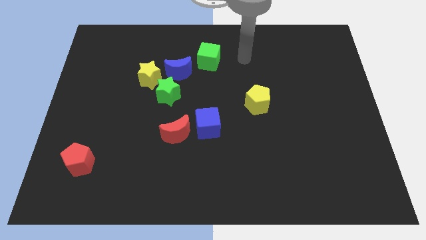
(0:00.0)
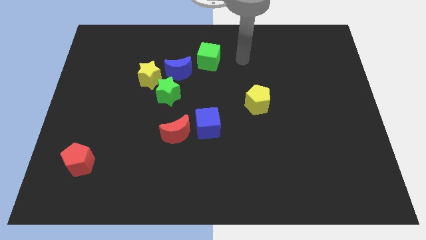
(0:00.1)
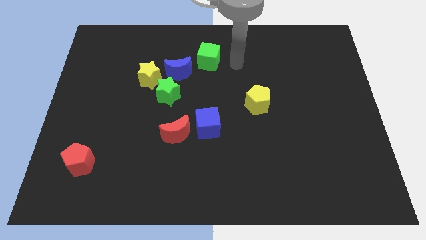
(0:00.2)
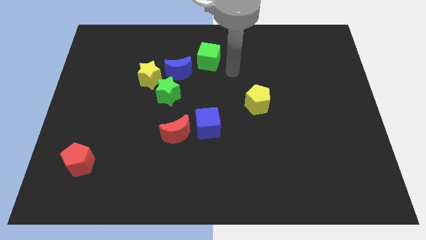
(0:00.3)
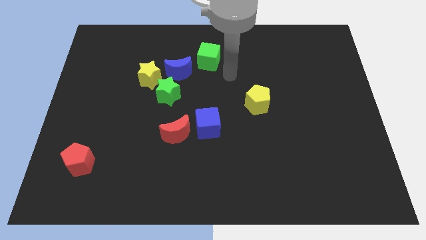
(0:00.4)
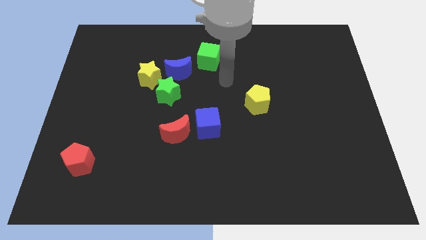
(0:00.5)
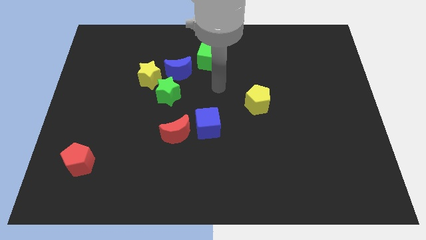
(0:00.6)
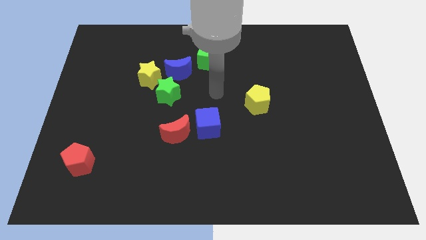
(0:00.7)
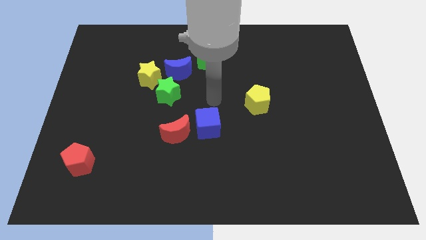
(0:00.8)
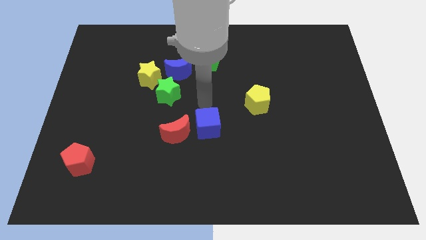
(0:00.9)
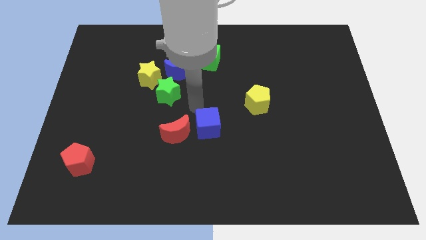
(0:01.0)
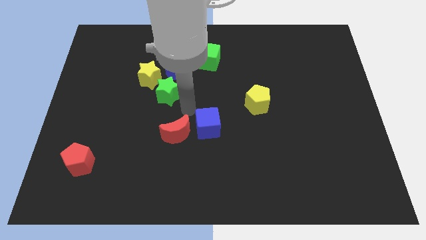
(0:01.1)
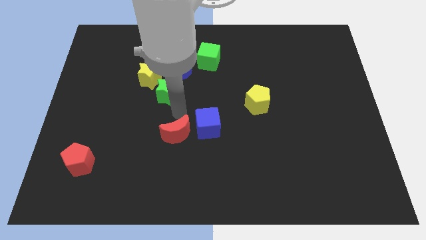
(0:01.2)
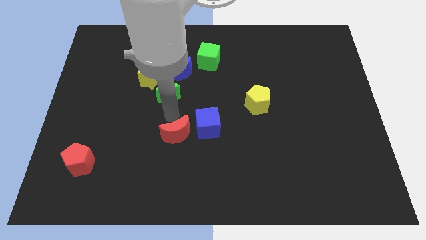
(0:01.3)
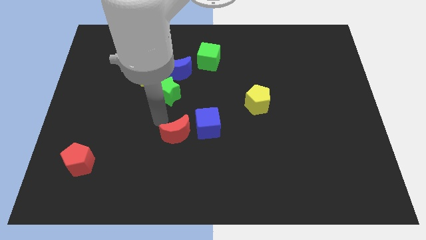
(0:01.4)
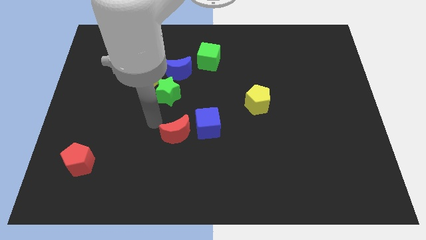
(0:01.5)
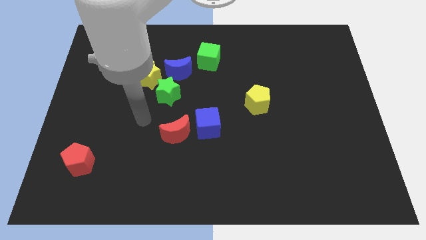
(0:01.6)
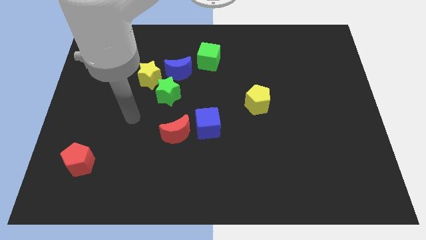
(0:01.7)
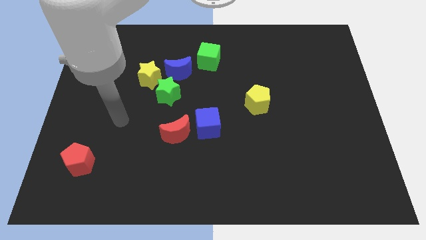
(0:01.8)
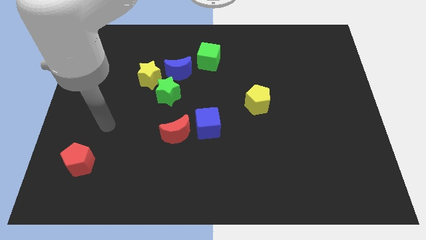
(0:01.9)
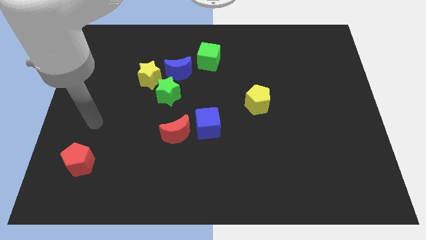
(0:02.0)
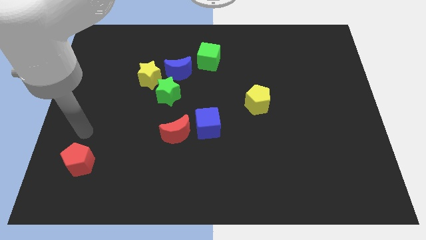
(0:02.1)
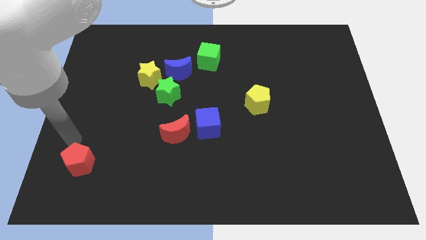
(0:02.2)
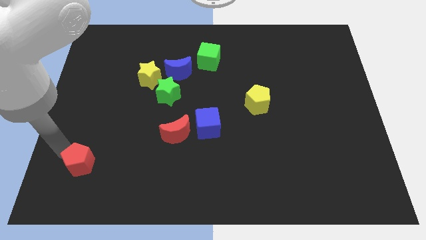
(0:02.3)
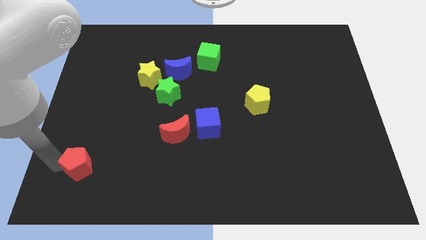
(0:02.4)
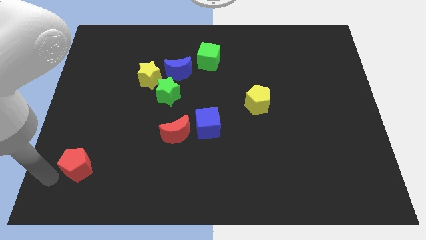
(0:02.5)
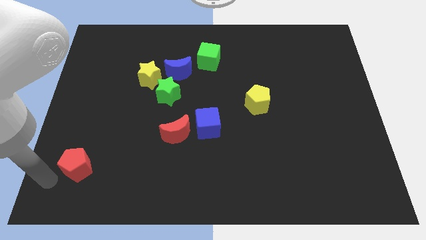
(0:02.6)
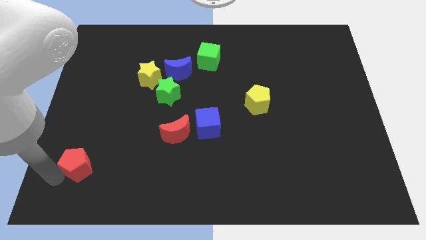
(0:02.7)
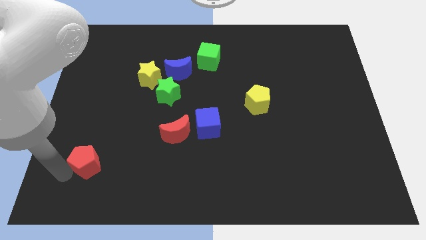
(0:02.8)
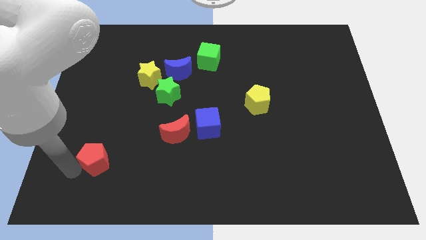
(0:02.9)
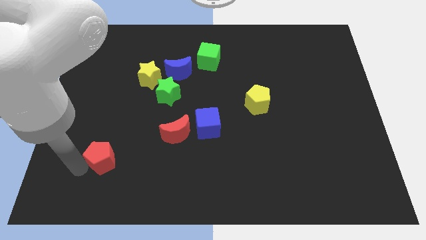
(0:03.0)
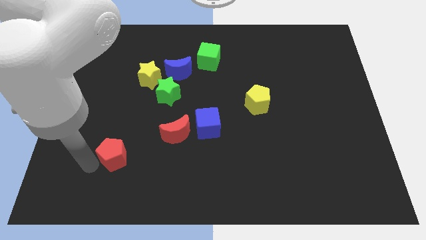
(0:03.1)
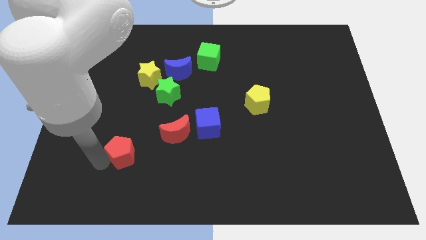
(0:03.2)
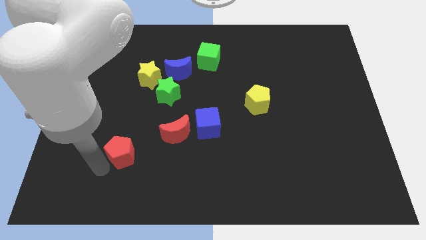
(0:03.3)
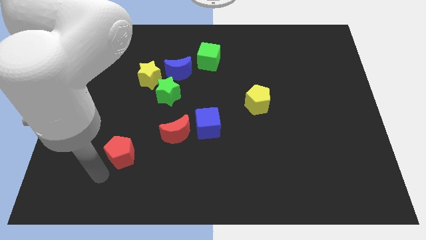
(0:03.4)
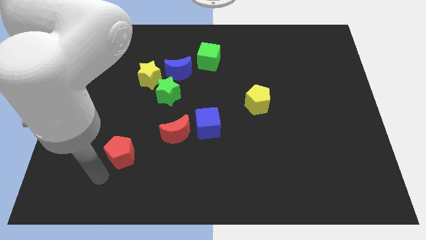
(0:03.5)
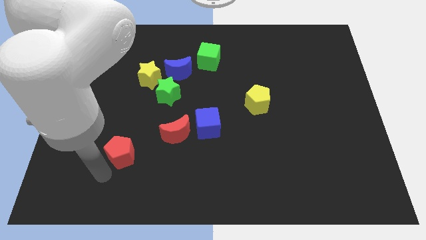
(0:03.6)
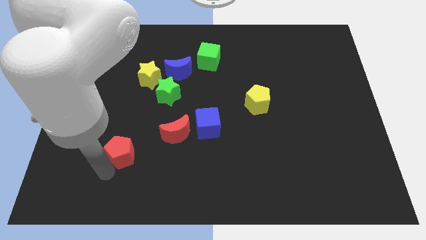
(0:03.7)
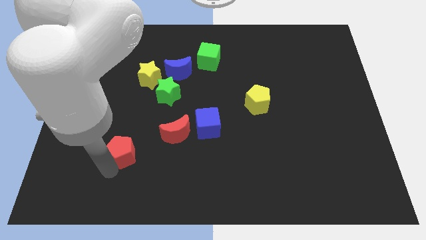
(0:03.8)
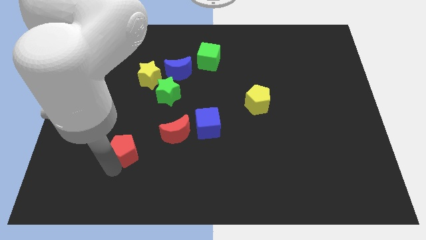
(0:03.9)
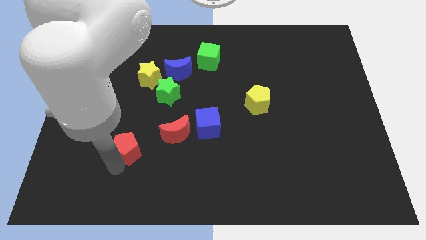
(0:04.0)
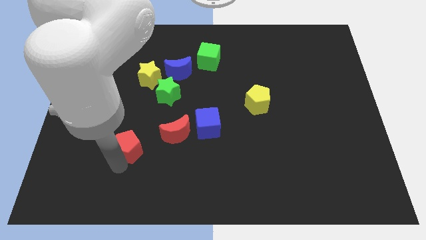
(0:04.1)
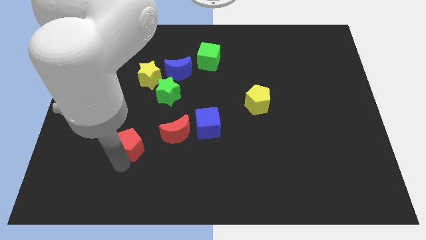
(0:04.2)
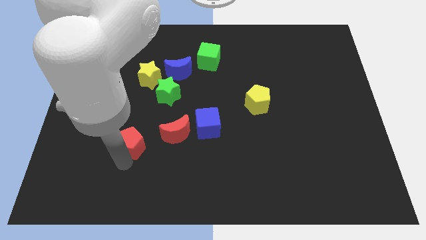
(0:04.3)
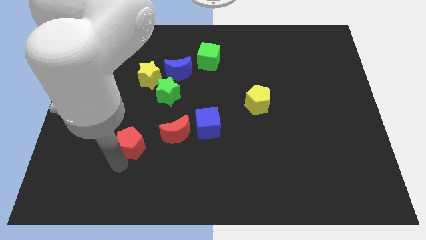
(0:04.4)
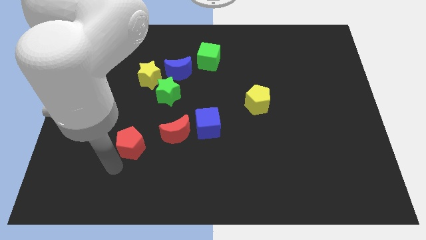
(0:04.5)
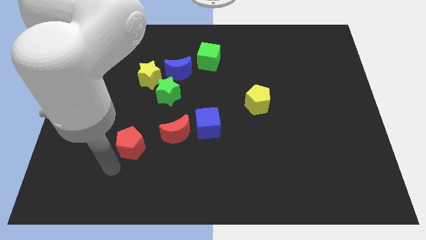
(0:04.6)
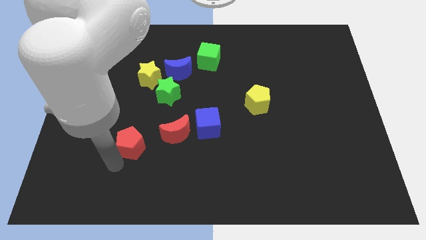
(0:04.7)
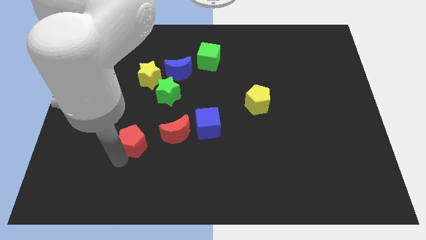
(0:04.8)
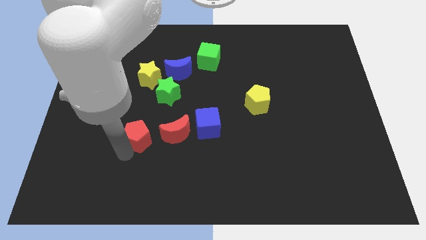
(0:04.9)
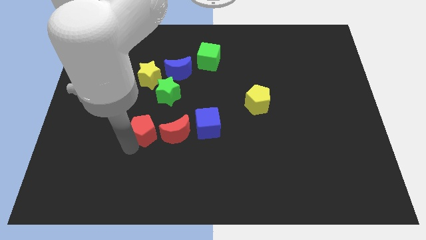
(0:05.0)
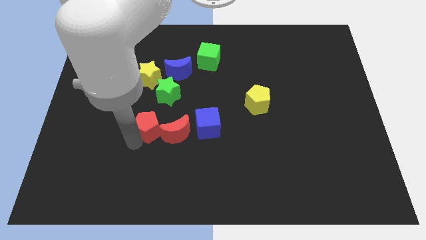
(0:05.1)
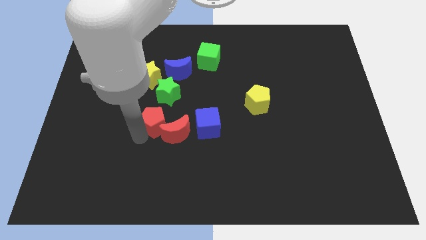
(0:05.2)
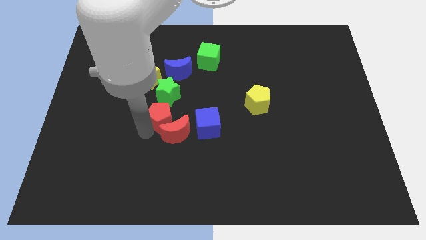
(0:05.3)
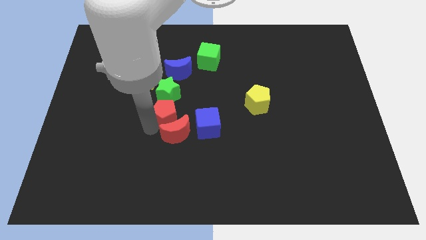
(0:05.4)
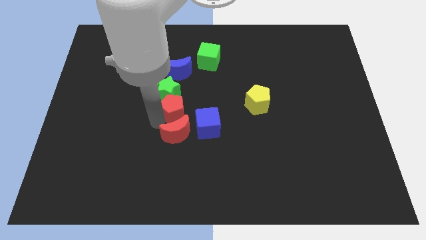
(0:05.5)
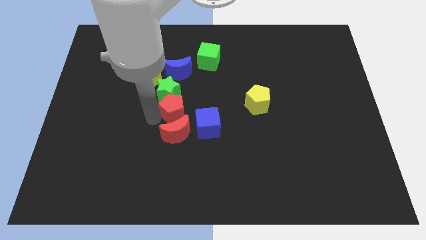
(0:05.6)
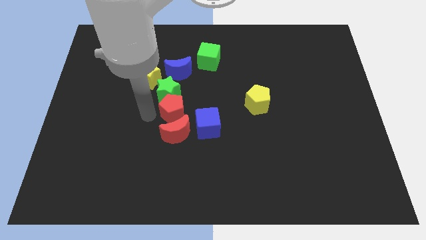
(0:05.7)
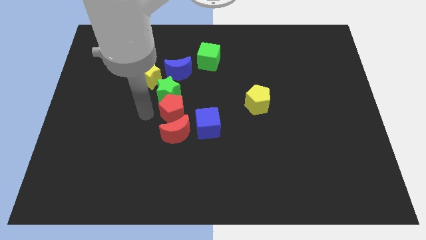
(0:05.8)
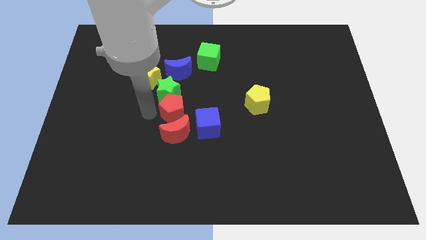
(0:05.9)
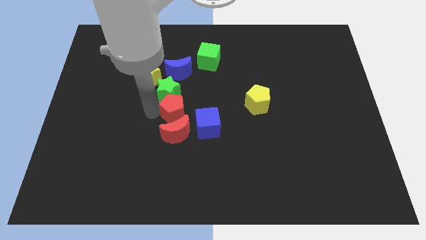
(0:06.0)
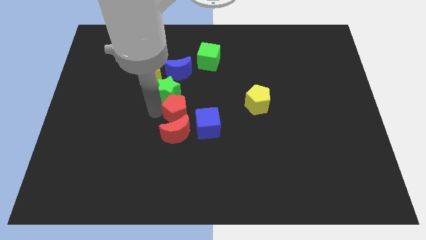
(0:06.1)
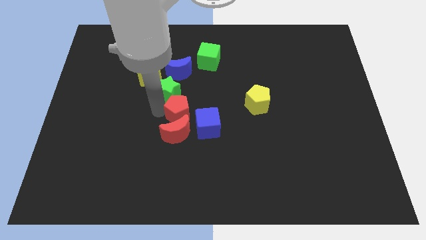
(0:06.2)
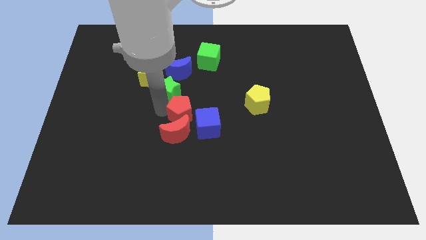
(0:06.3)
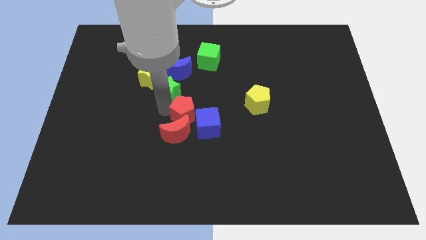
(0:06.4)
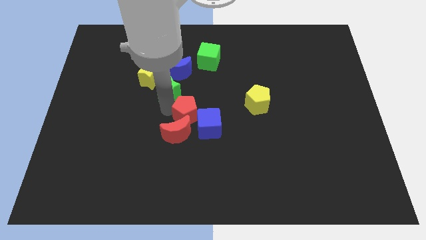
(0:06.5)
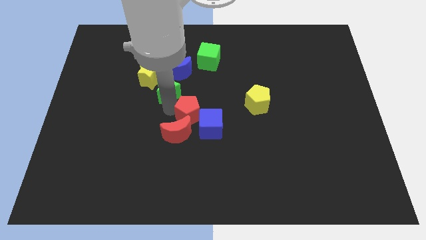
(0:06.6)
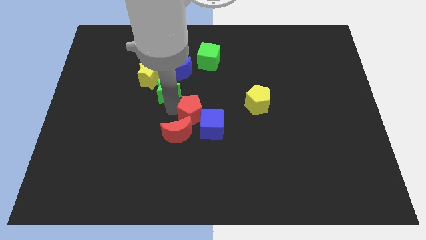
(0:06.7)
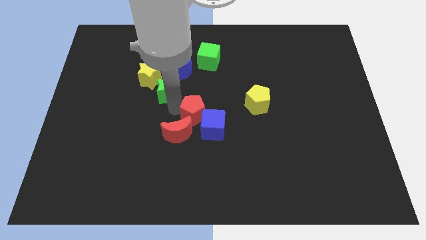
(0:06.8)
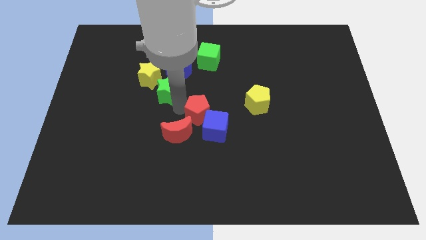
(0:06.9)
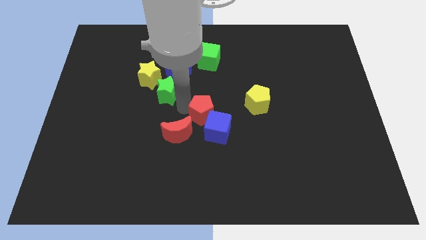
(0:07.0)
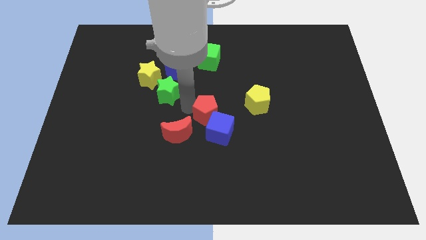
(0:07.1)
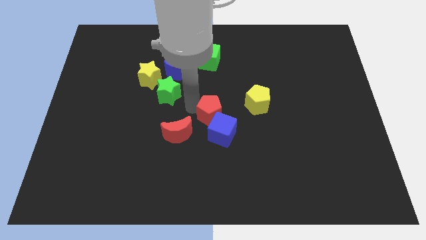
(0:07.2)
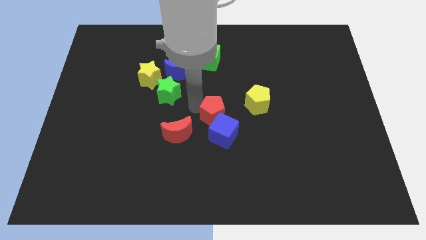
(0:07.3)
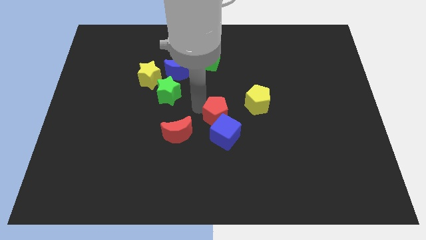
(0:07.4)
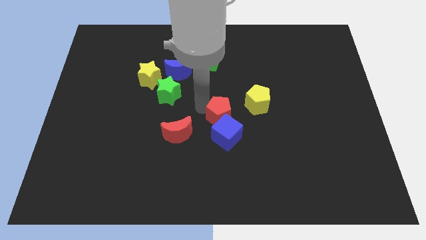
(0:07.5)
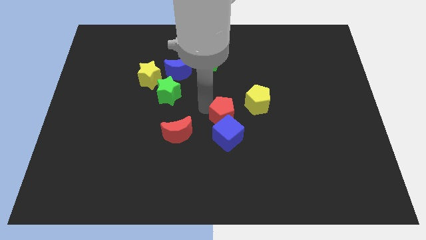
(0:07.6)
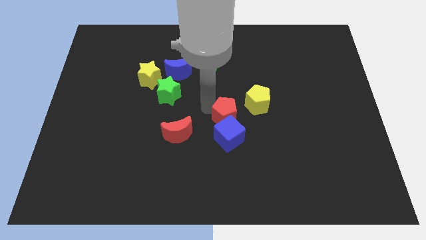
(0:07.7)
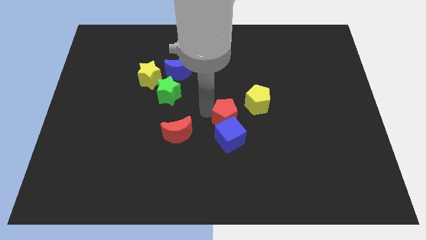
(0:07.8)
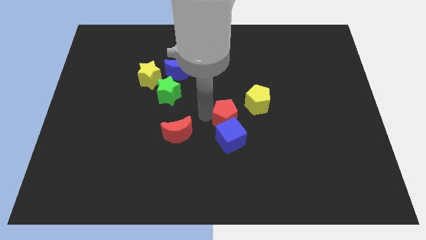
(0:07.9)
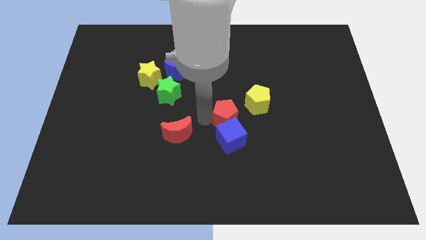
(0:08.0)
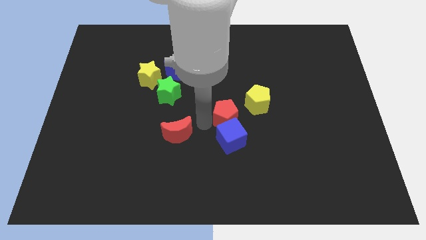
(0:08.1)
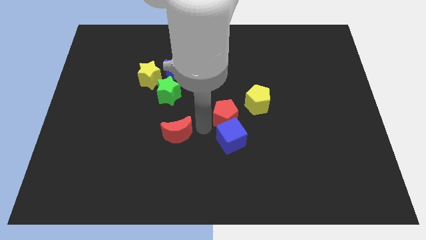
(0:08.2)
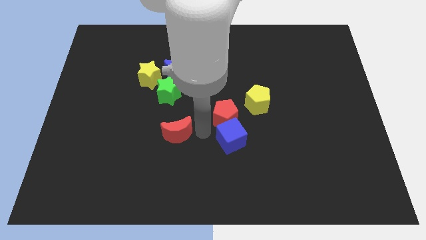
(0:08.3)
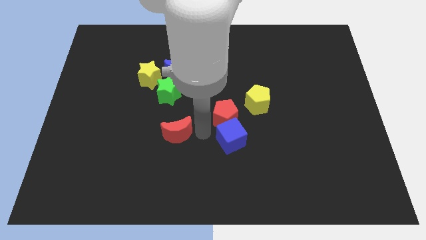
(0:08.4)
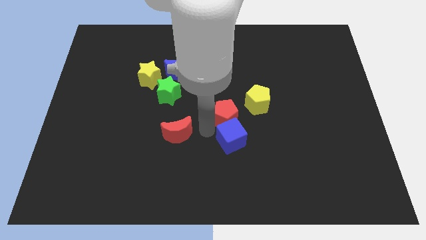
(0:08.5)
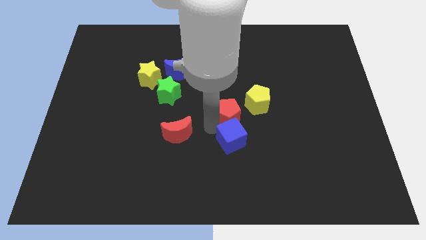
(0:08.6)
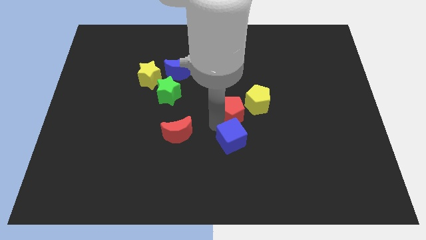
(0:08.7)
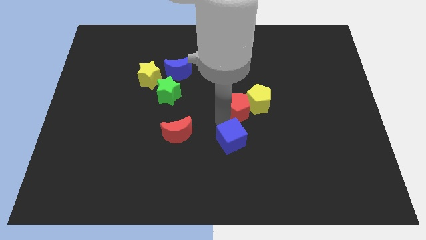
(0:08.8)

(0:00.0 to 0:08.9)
move the red pentagon close to the yellow pentagon
